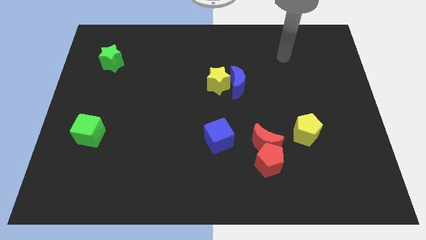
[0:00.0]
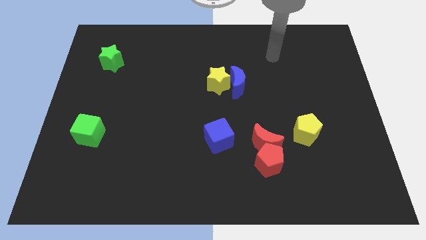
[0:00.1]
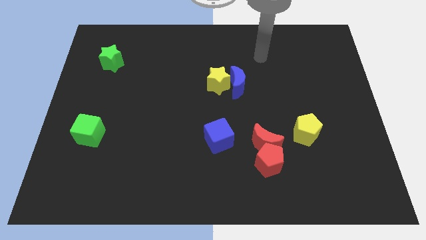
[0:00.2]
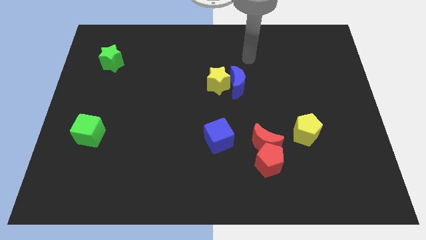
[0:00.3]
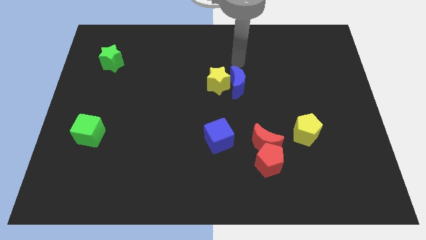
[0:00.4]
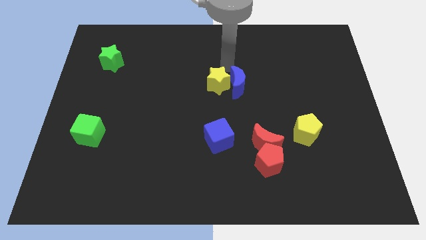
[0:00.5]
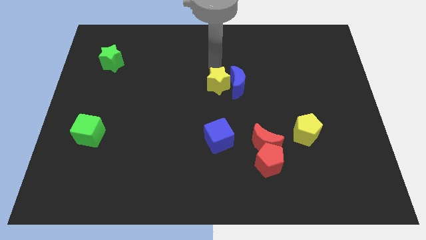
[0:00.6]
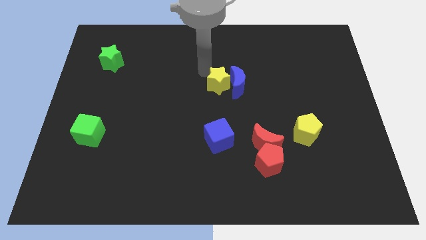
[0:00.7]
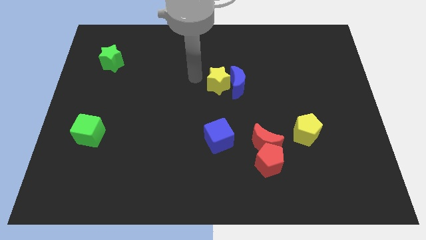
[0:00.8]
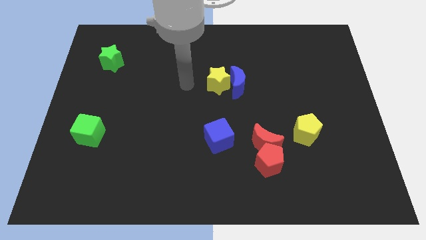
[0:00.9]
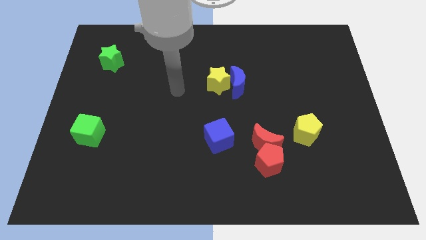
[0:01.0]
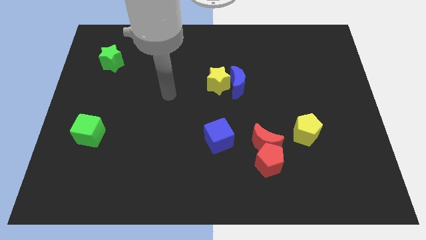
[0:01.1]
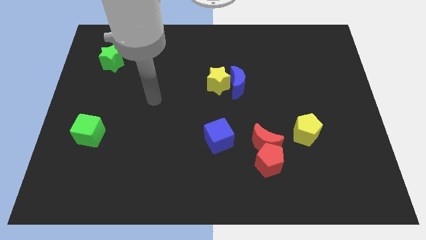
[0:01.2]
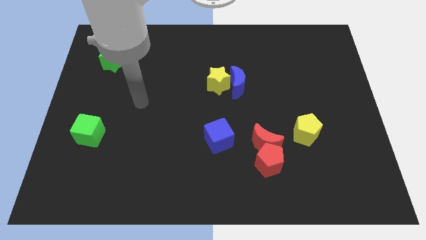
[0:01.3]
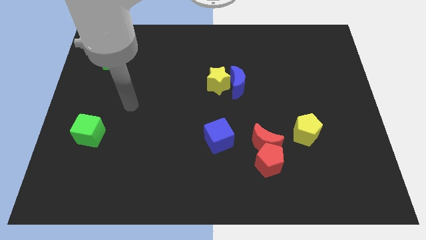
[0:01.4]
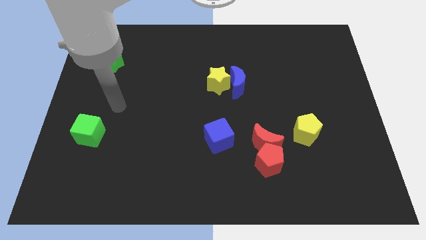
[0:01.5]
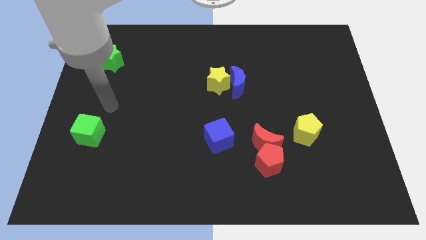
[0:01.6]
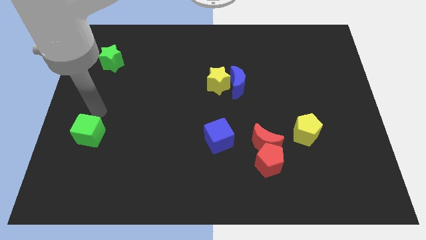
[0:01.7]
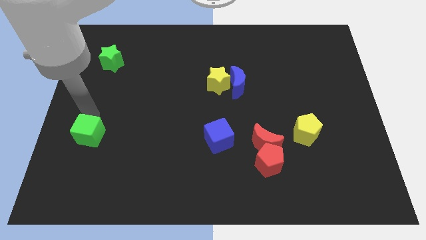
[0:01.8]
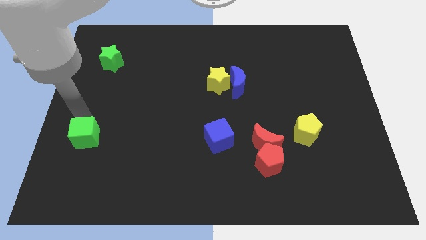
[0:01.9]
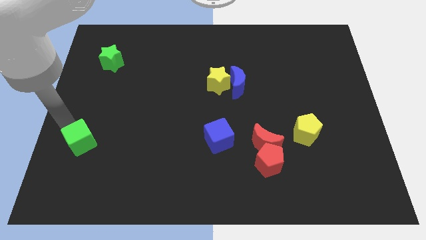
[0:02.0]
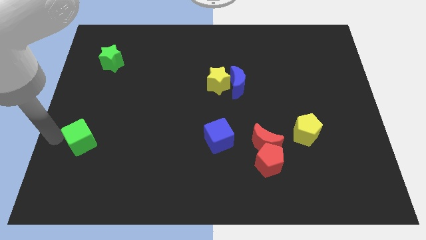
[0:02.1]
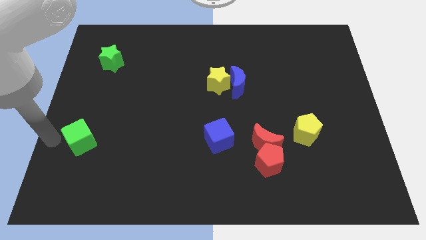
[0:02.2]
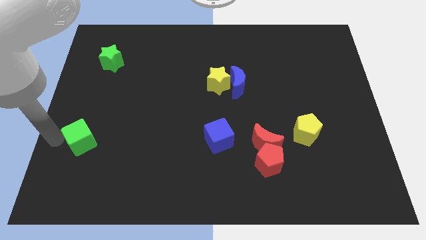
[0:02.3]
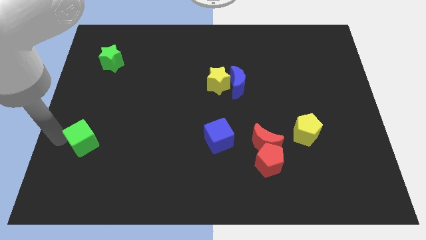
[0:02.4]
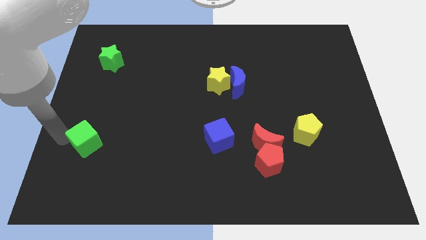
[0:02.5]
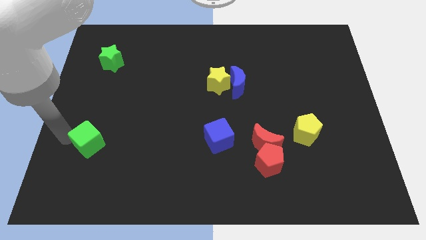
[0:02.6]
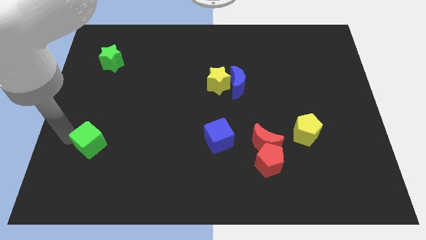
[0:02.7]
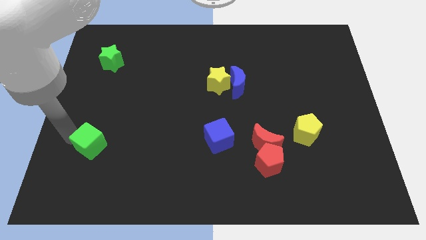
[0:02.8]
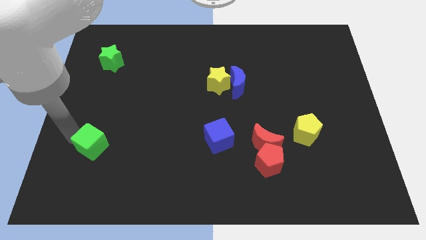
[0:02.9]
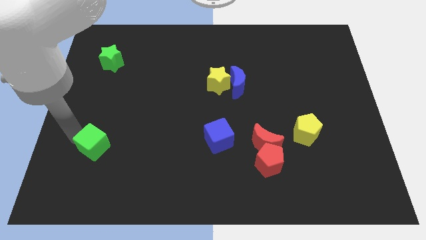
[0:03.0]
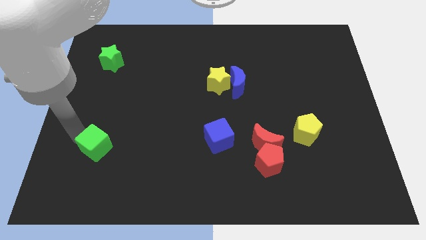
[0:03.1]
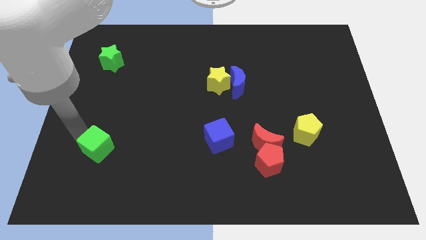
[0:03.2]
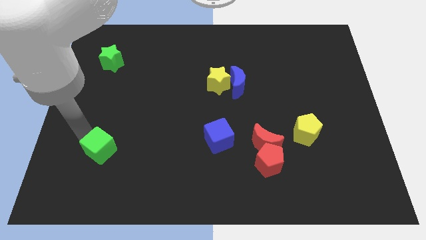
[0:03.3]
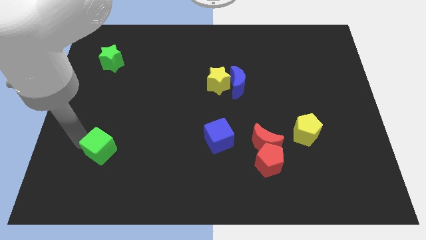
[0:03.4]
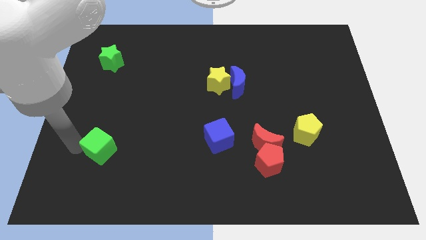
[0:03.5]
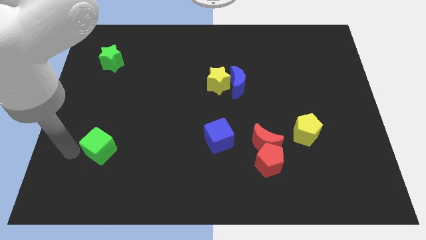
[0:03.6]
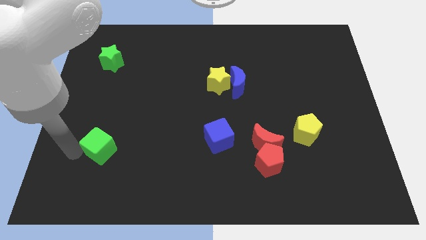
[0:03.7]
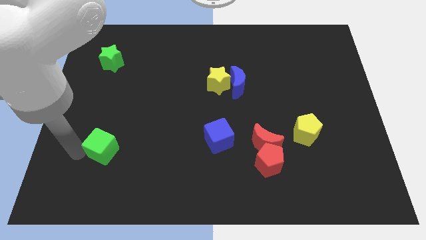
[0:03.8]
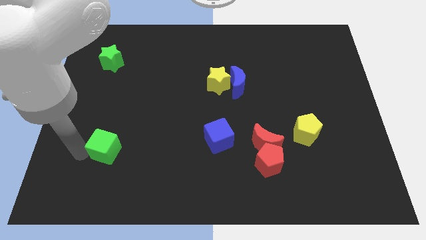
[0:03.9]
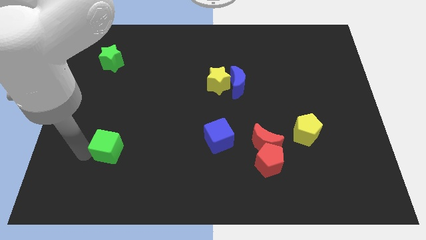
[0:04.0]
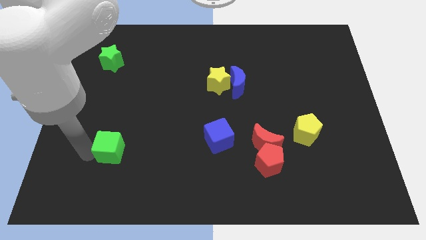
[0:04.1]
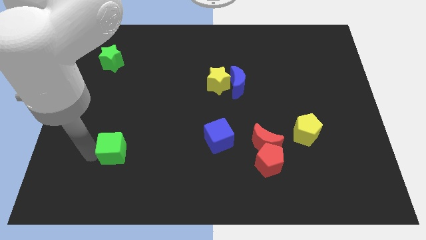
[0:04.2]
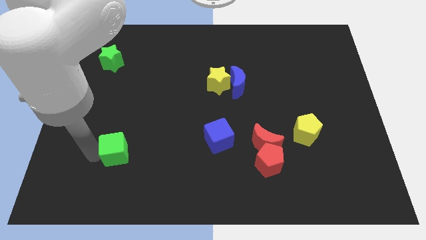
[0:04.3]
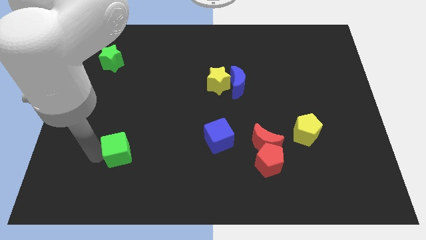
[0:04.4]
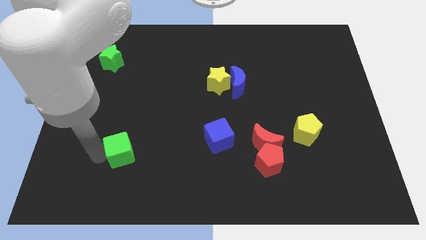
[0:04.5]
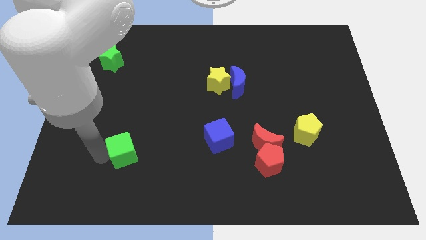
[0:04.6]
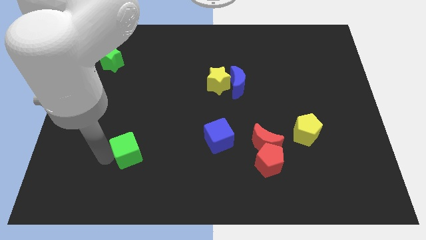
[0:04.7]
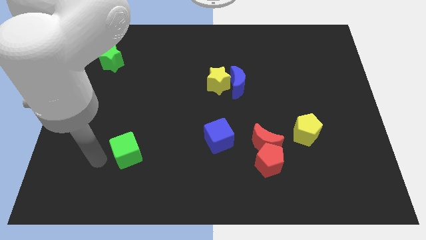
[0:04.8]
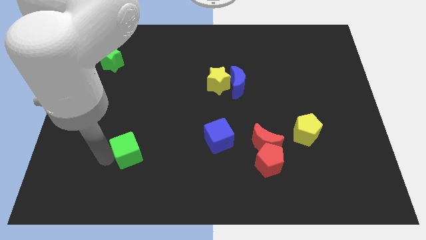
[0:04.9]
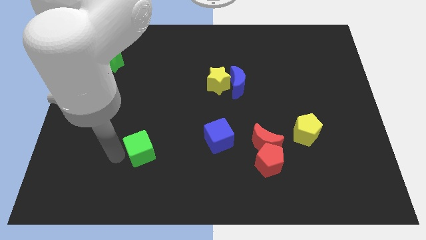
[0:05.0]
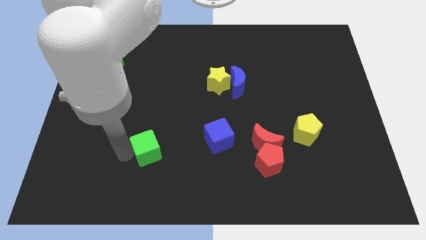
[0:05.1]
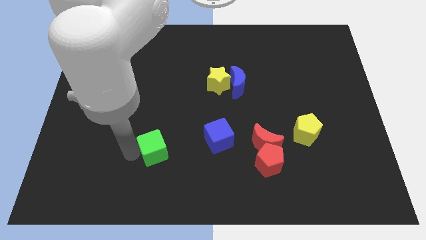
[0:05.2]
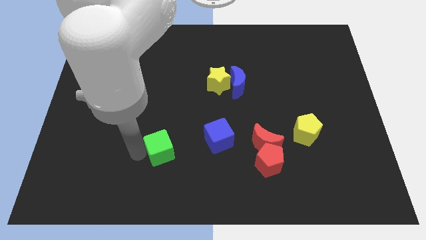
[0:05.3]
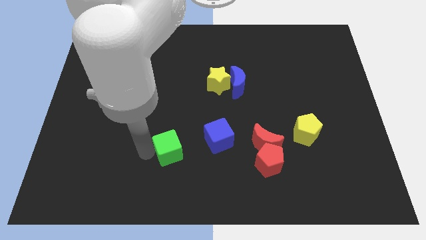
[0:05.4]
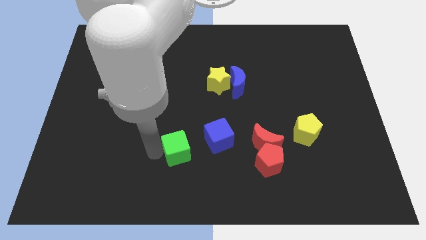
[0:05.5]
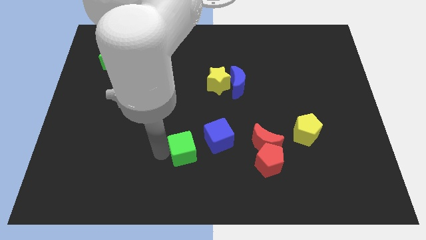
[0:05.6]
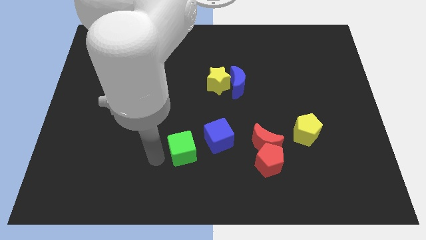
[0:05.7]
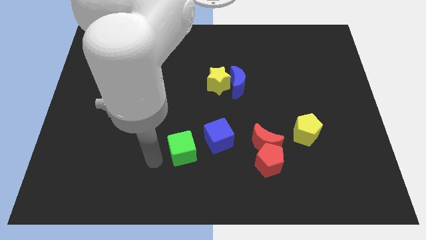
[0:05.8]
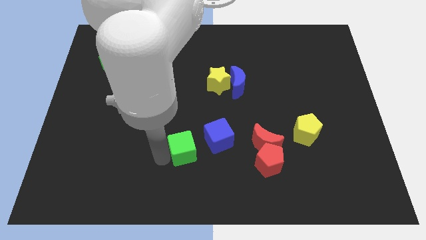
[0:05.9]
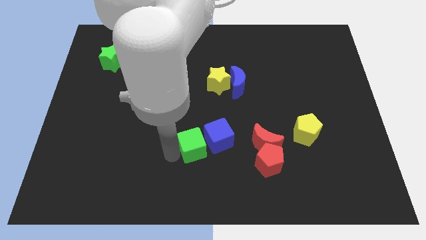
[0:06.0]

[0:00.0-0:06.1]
put the green cube close to the blue cube

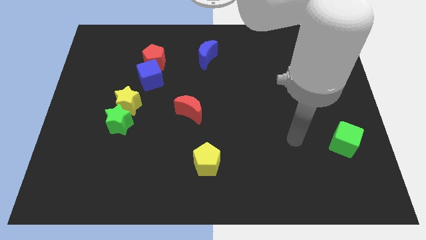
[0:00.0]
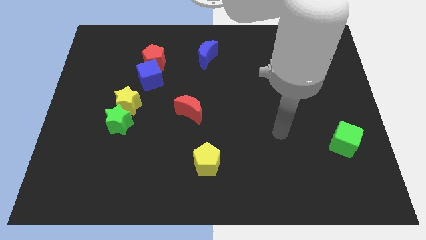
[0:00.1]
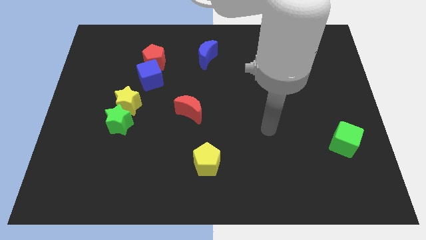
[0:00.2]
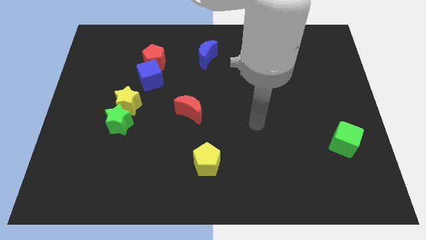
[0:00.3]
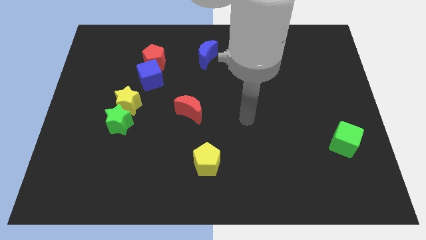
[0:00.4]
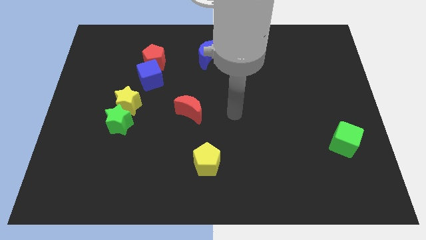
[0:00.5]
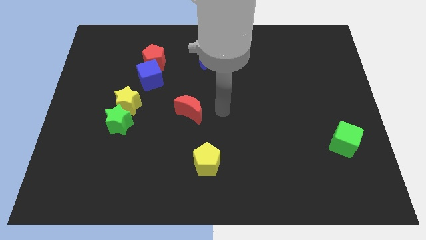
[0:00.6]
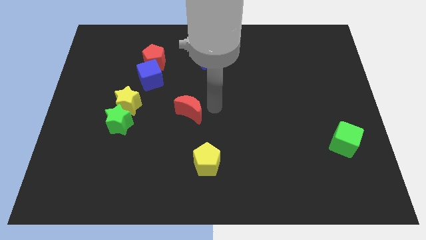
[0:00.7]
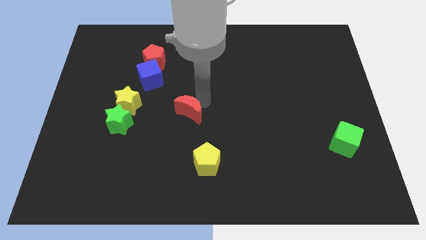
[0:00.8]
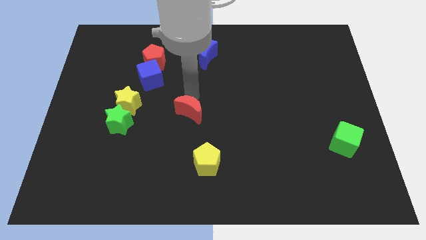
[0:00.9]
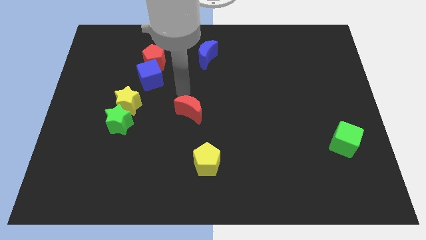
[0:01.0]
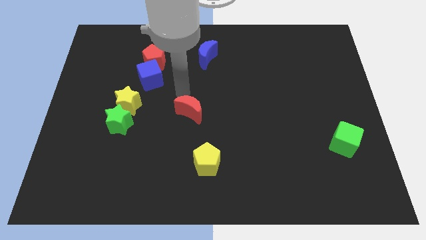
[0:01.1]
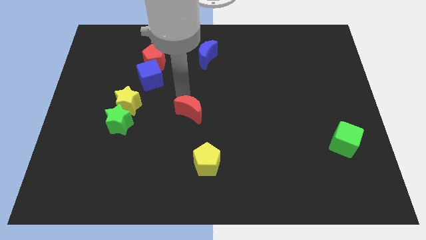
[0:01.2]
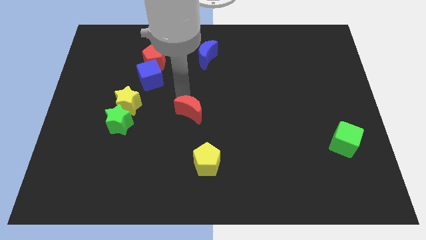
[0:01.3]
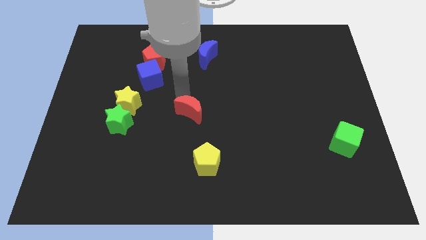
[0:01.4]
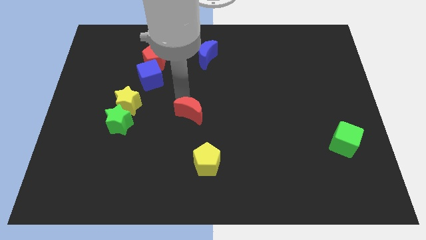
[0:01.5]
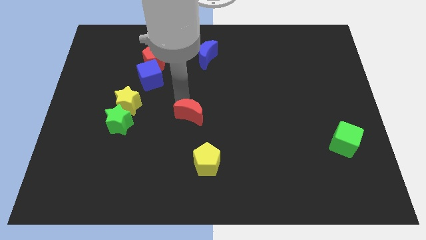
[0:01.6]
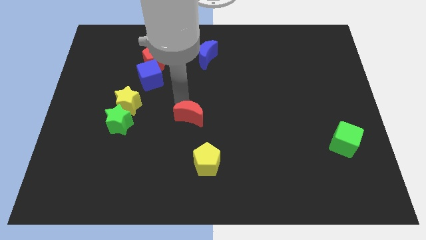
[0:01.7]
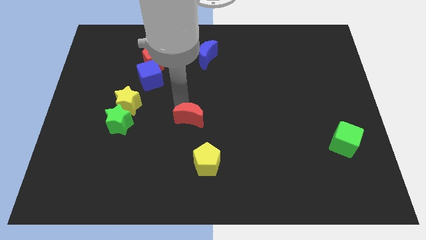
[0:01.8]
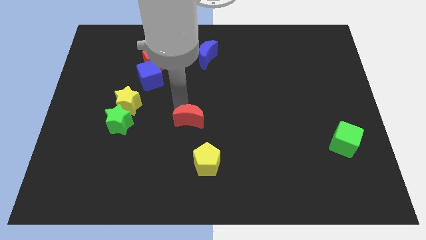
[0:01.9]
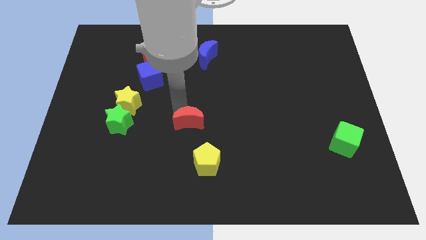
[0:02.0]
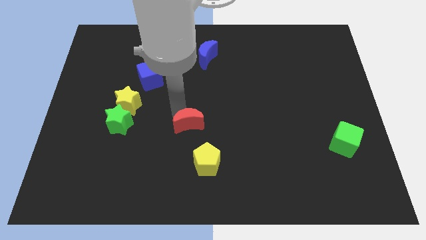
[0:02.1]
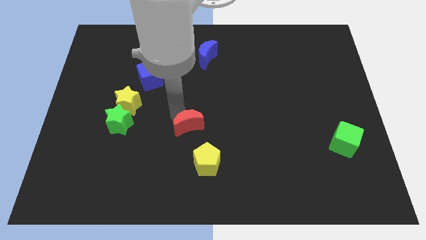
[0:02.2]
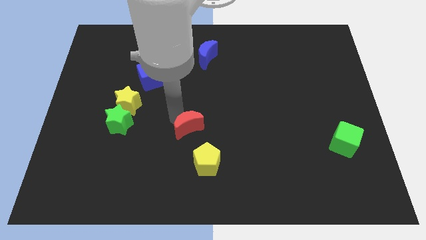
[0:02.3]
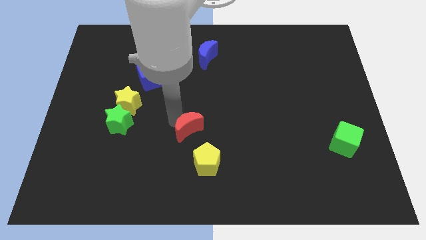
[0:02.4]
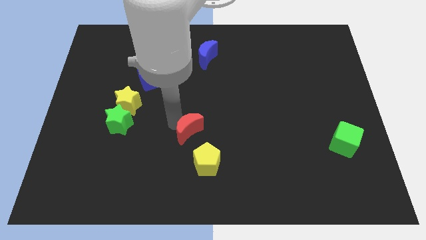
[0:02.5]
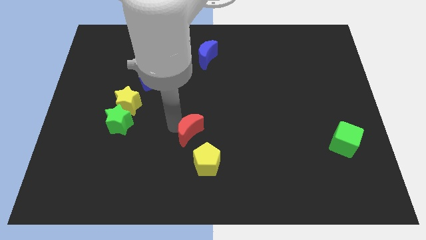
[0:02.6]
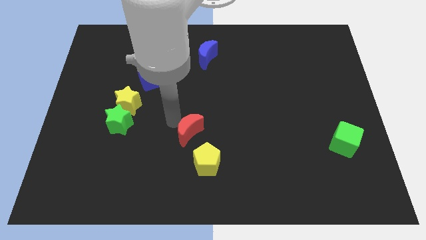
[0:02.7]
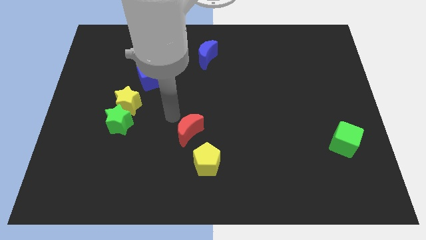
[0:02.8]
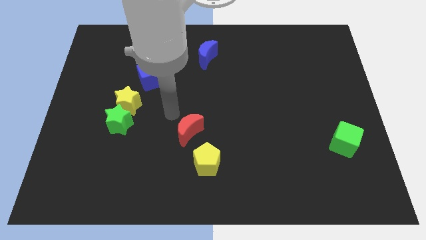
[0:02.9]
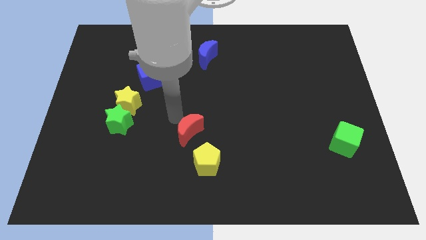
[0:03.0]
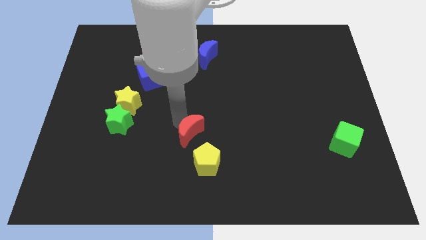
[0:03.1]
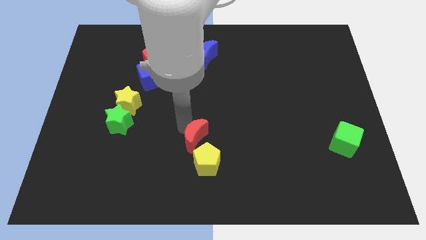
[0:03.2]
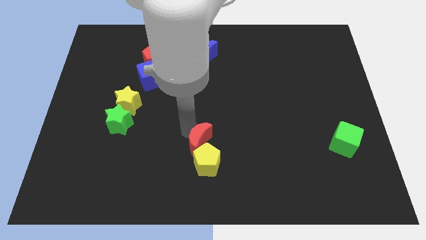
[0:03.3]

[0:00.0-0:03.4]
put the red moon close to the yellow pentagon
